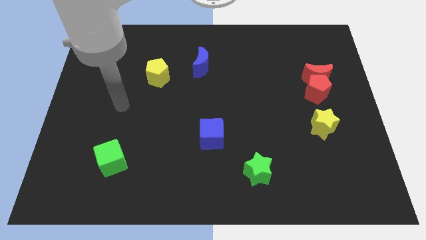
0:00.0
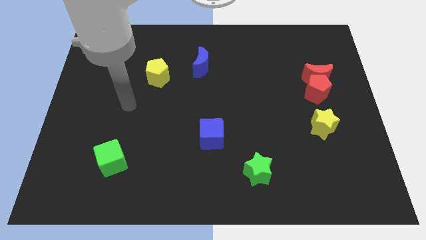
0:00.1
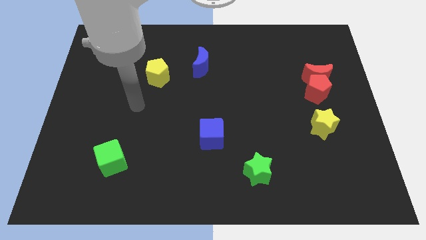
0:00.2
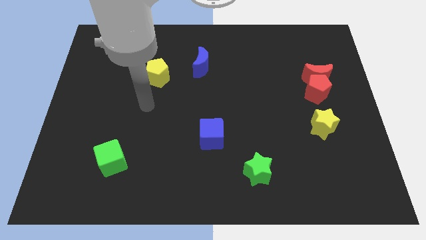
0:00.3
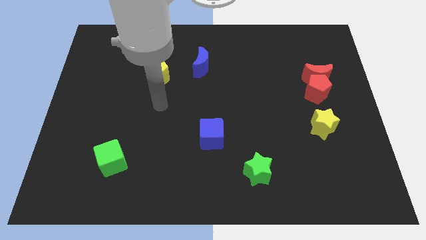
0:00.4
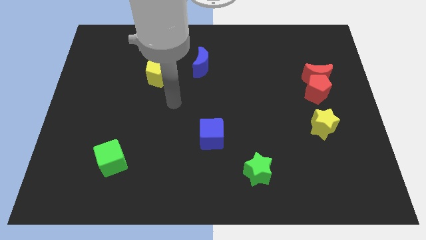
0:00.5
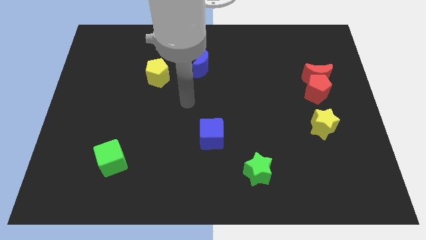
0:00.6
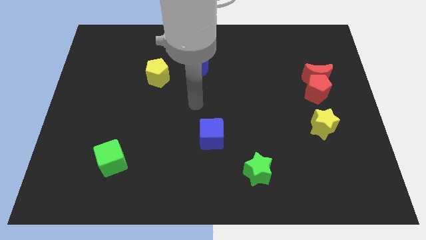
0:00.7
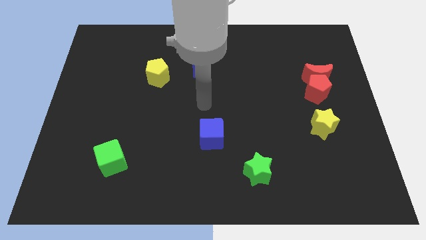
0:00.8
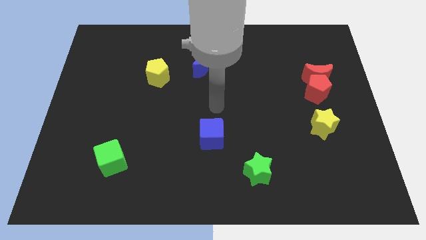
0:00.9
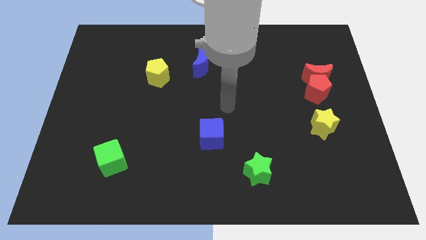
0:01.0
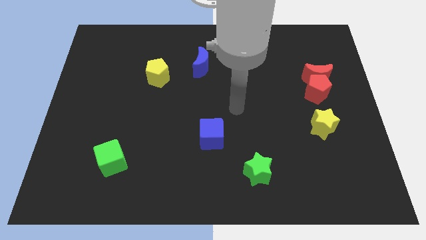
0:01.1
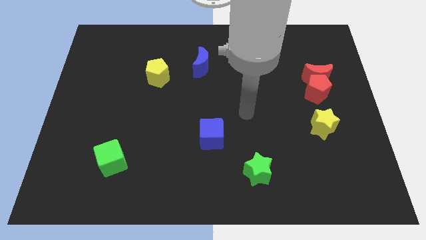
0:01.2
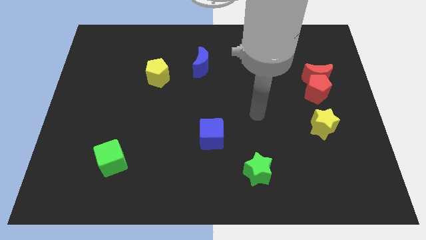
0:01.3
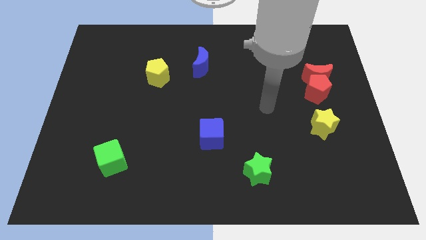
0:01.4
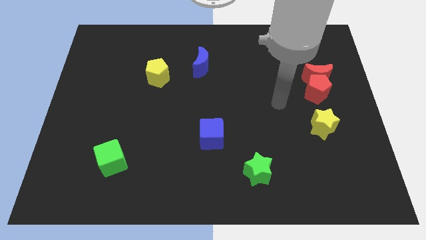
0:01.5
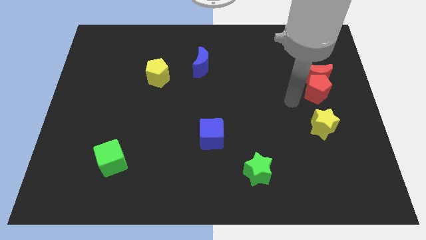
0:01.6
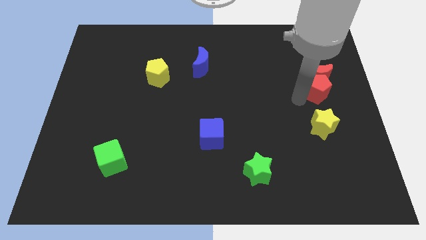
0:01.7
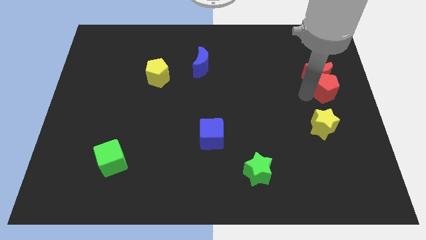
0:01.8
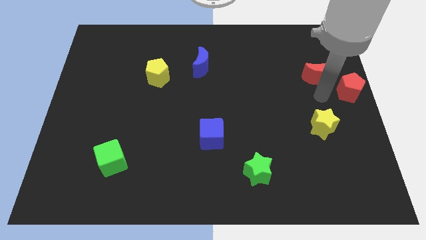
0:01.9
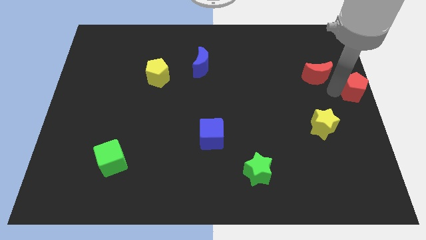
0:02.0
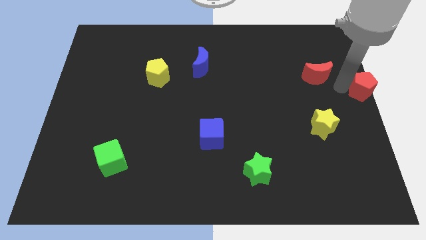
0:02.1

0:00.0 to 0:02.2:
separate the red moon from the red pentagon

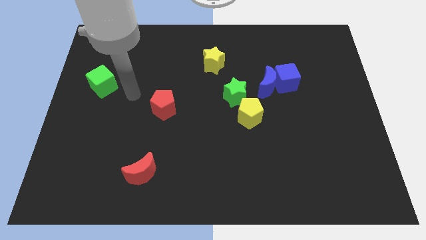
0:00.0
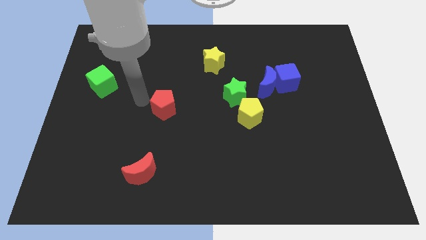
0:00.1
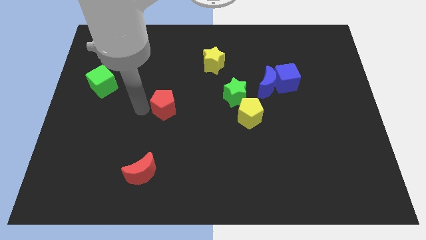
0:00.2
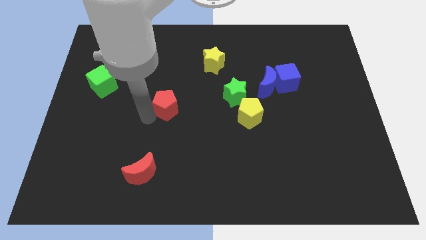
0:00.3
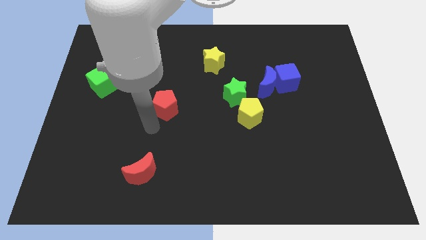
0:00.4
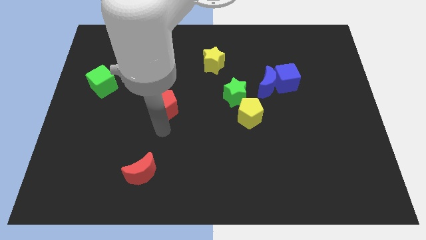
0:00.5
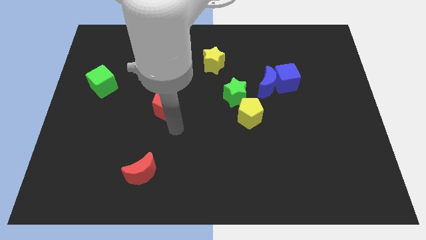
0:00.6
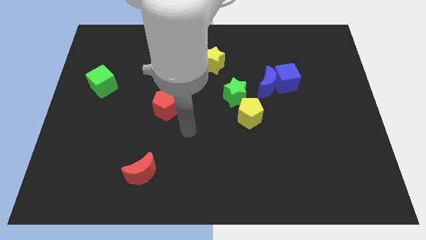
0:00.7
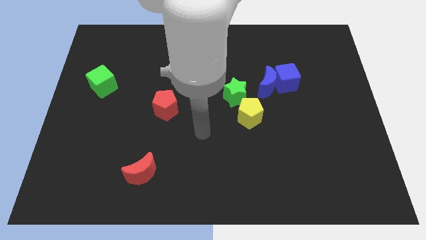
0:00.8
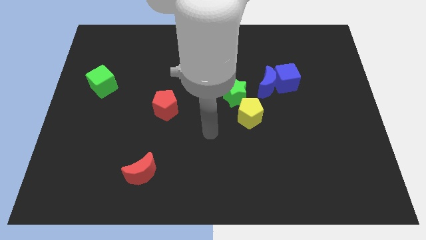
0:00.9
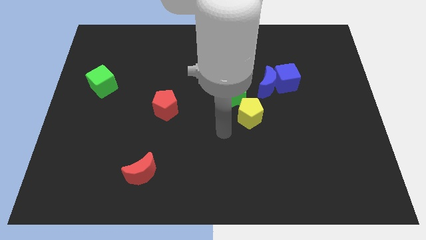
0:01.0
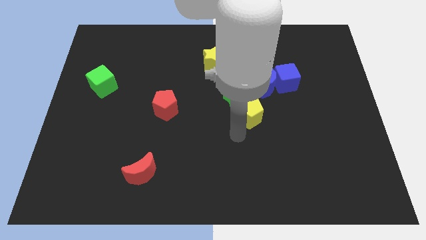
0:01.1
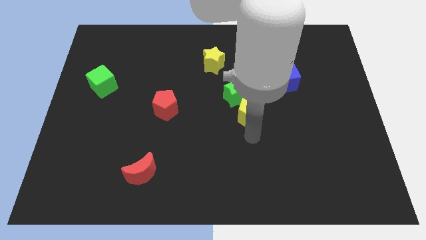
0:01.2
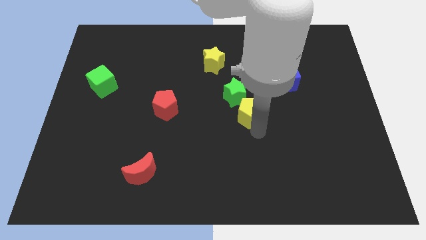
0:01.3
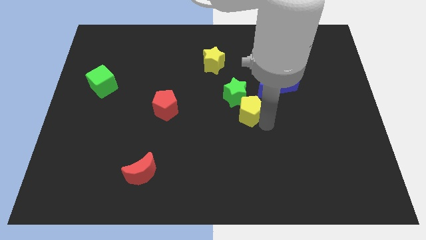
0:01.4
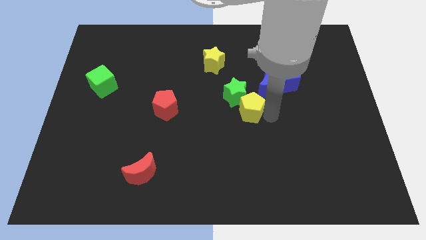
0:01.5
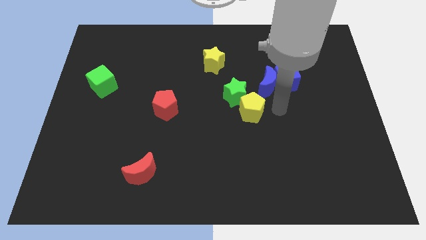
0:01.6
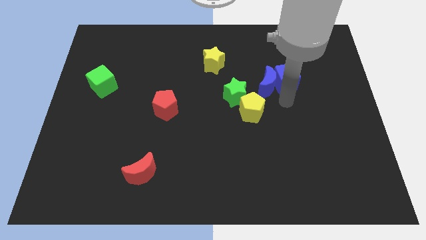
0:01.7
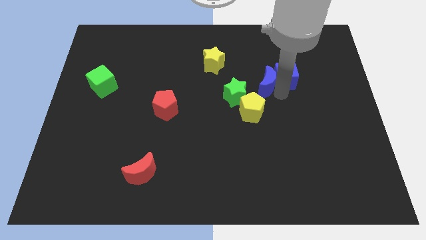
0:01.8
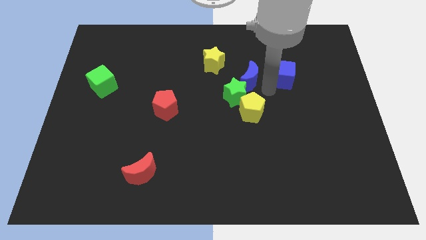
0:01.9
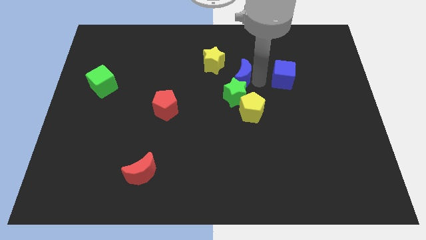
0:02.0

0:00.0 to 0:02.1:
pull the blue cube apart from the blue moon

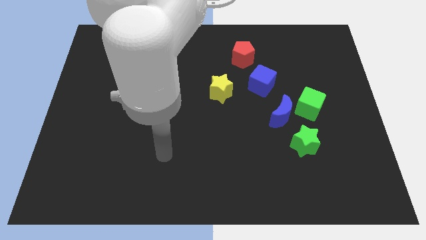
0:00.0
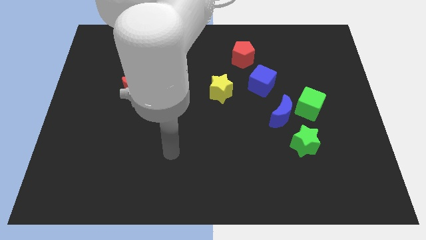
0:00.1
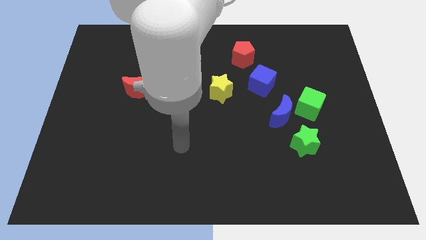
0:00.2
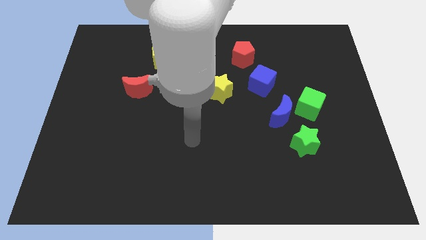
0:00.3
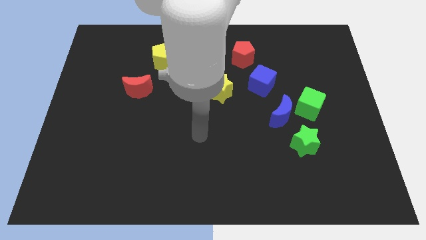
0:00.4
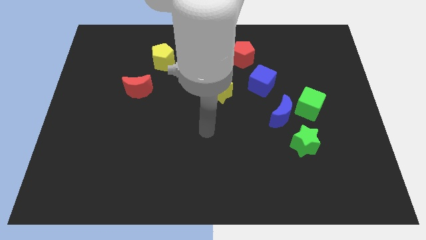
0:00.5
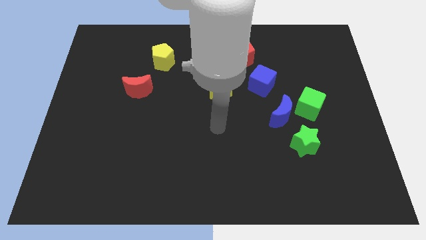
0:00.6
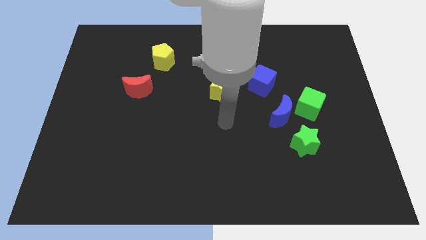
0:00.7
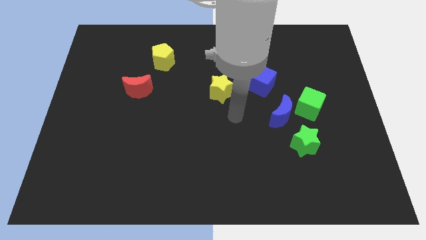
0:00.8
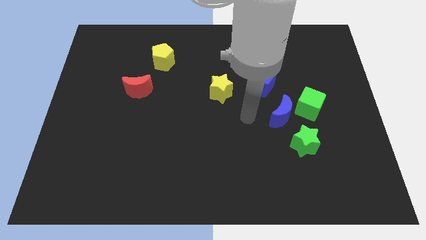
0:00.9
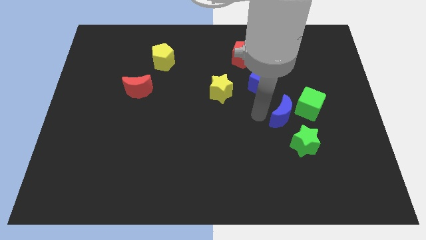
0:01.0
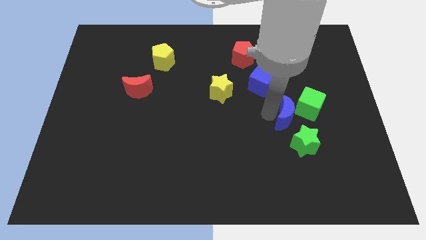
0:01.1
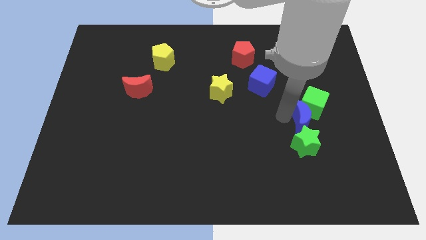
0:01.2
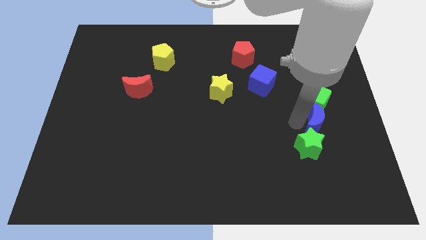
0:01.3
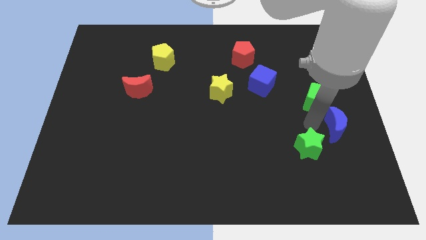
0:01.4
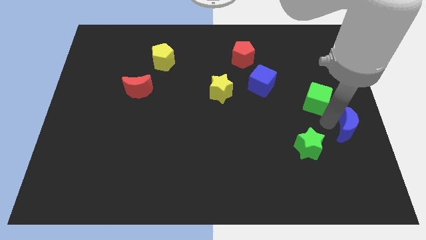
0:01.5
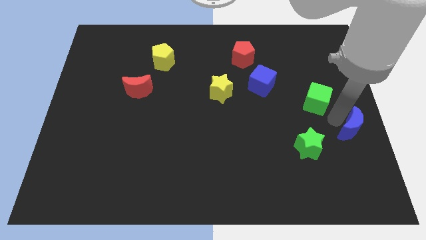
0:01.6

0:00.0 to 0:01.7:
separate the green cube from the blue moon

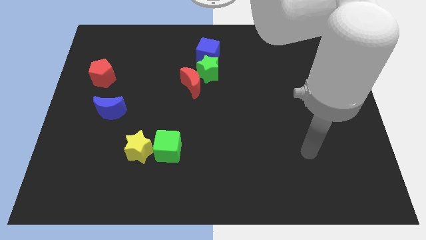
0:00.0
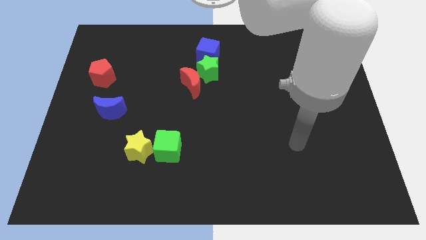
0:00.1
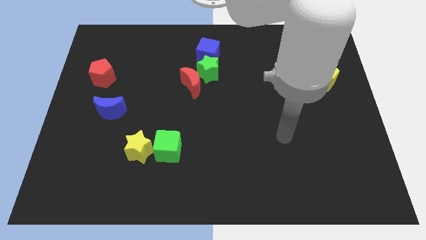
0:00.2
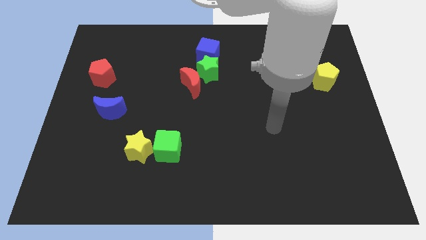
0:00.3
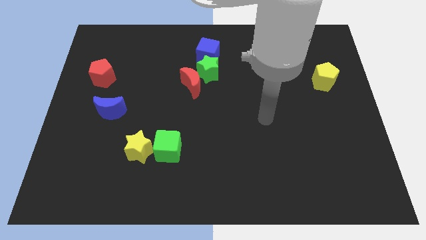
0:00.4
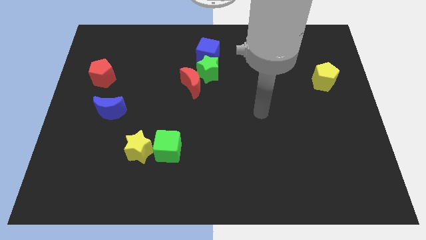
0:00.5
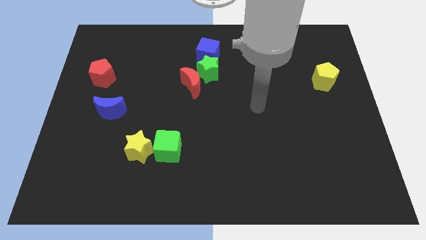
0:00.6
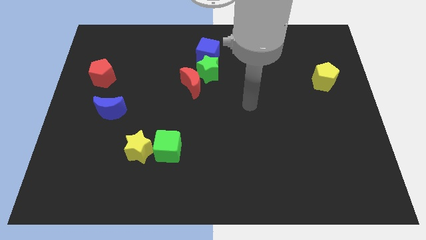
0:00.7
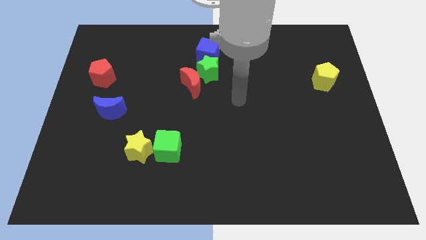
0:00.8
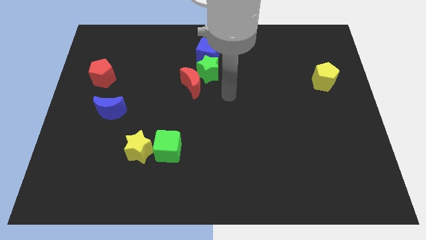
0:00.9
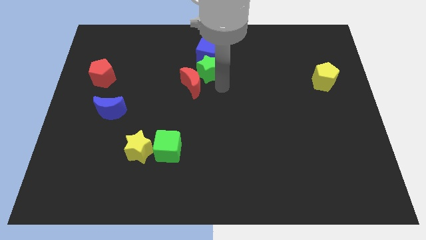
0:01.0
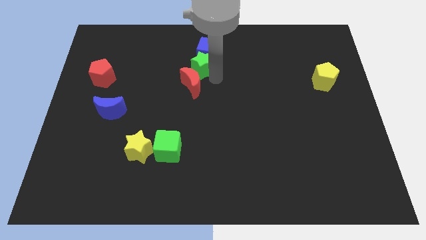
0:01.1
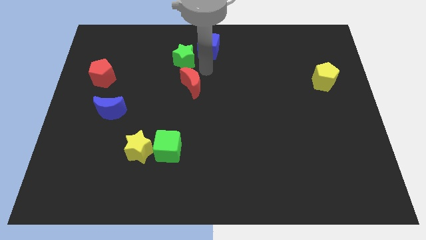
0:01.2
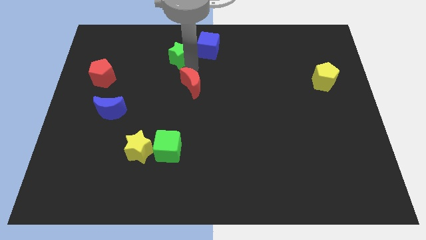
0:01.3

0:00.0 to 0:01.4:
separate the red moon from the green star

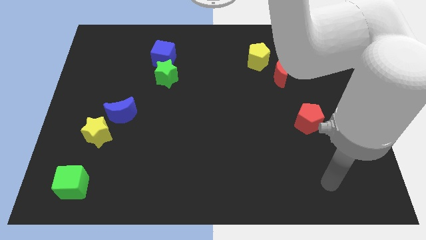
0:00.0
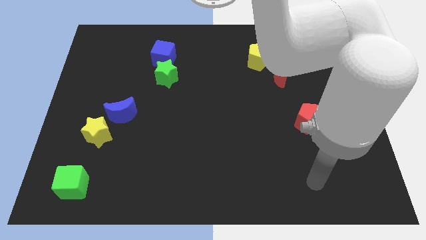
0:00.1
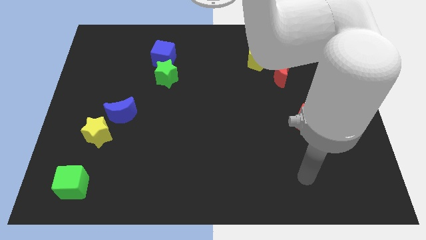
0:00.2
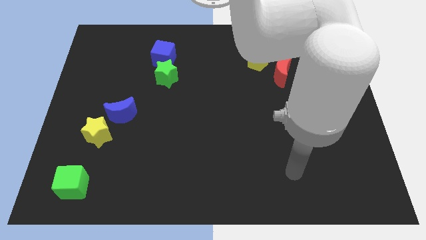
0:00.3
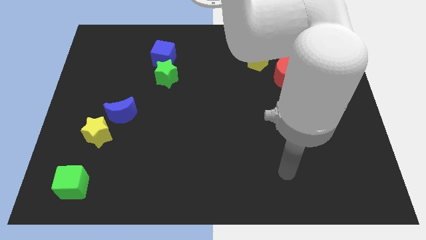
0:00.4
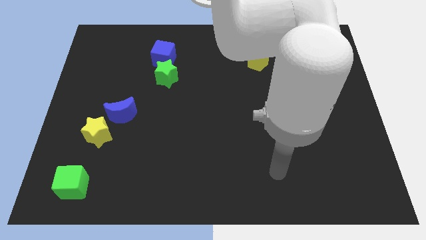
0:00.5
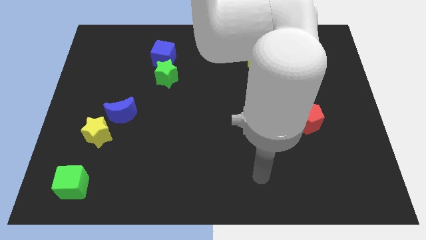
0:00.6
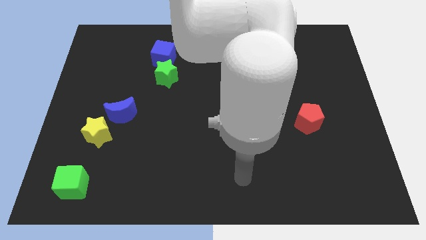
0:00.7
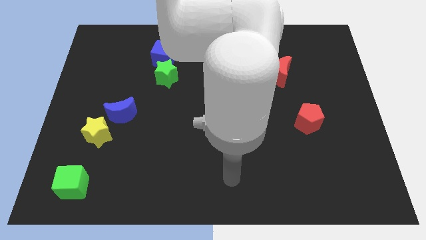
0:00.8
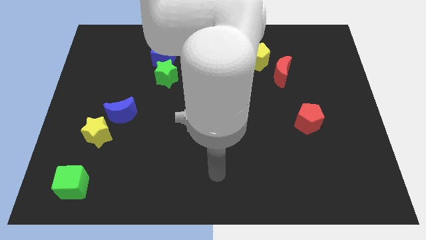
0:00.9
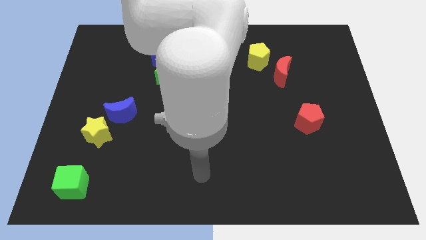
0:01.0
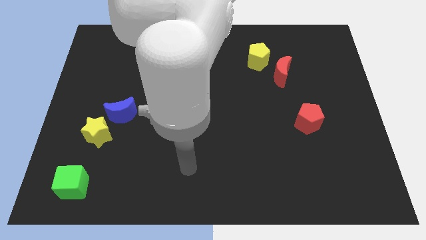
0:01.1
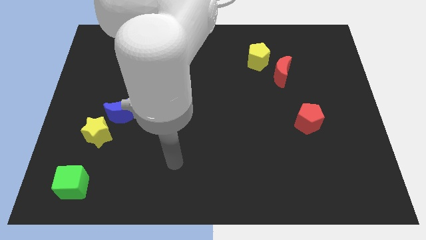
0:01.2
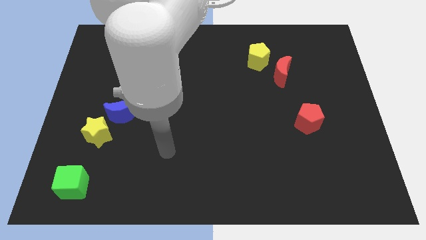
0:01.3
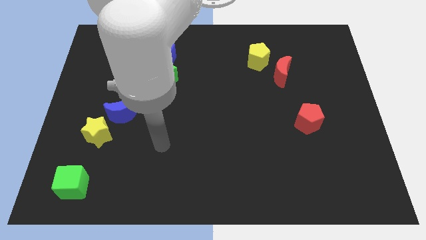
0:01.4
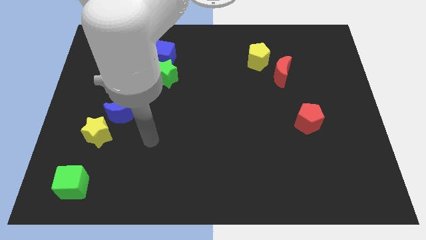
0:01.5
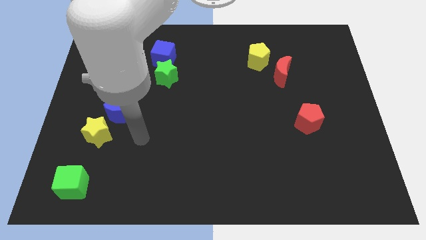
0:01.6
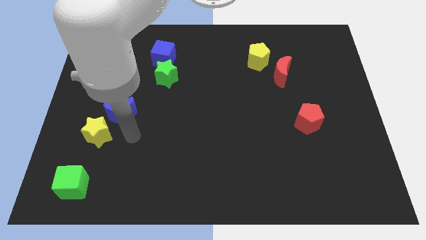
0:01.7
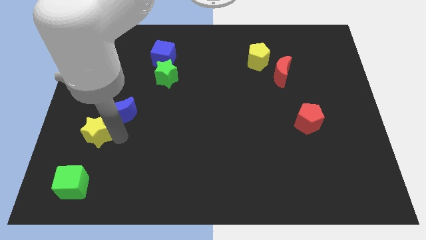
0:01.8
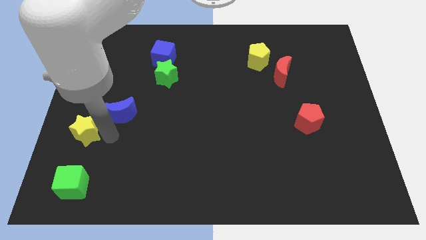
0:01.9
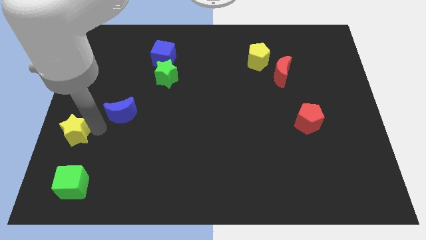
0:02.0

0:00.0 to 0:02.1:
separate the blue moon from the yellow star
